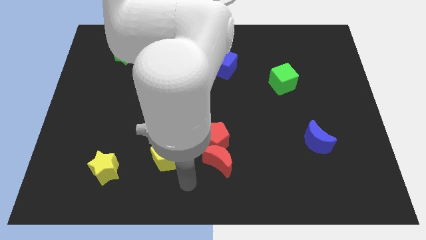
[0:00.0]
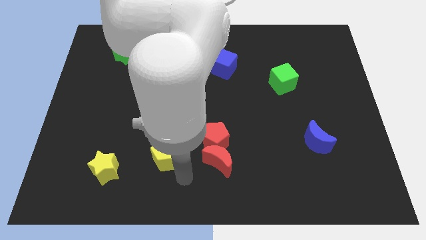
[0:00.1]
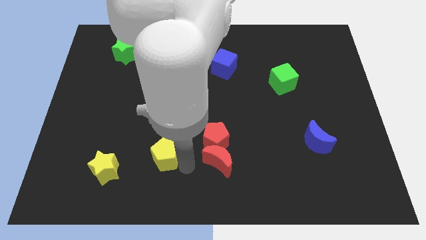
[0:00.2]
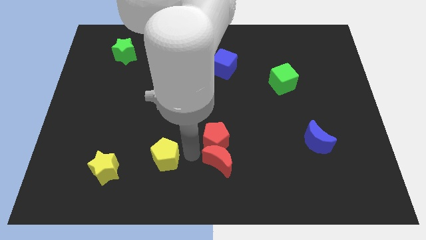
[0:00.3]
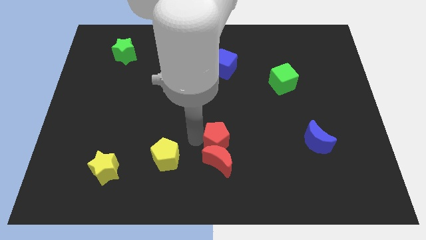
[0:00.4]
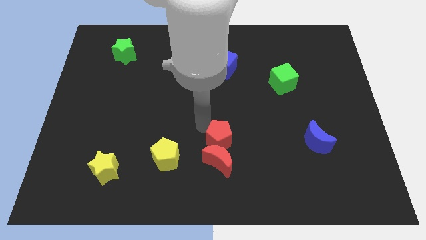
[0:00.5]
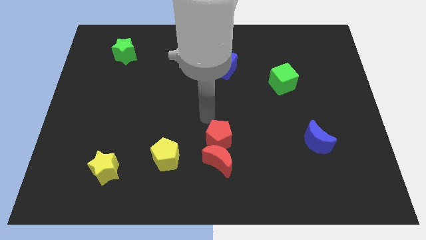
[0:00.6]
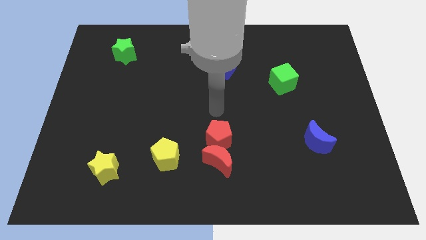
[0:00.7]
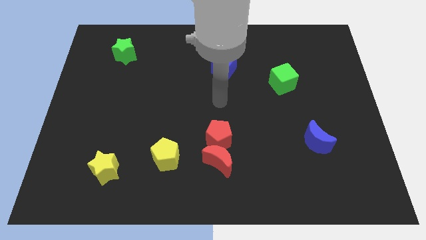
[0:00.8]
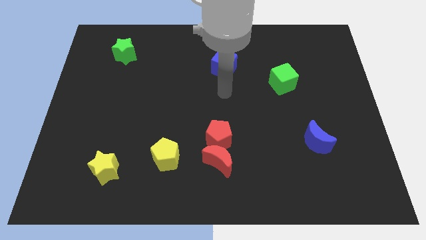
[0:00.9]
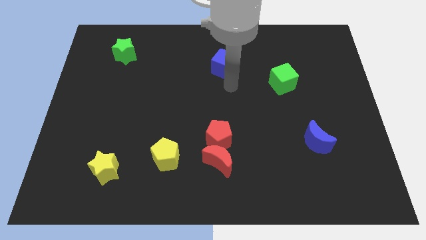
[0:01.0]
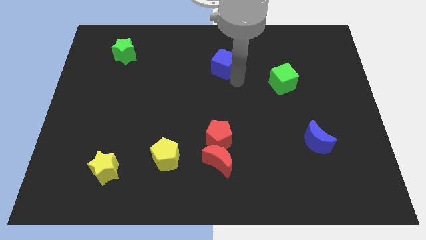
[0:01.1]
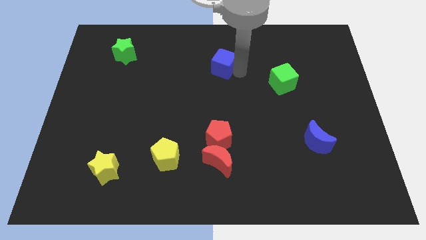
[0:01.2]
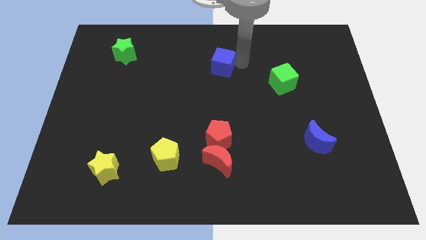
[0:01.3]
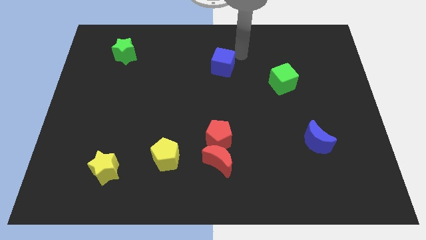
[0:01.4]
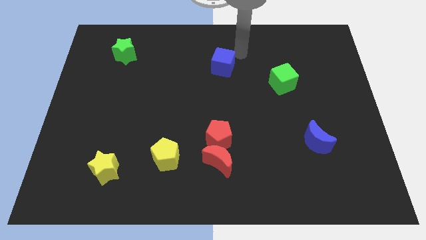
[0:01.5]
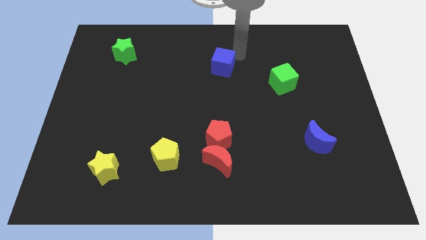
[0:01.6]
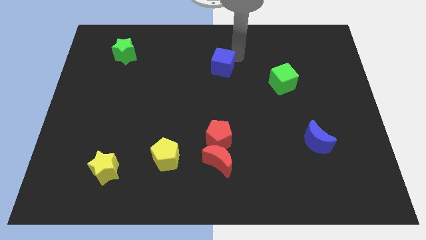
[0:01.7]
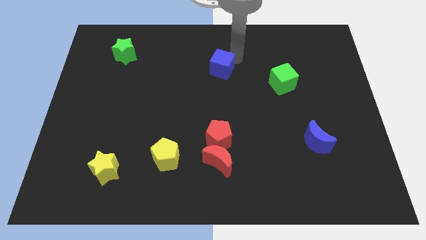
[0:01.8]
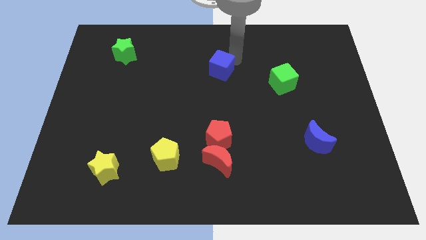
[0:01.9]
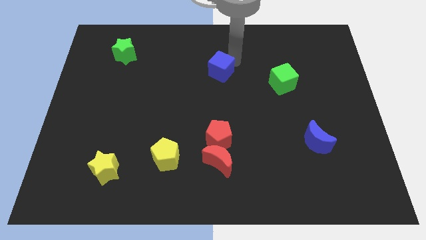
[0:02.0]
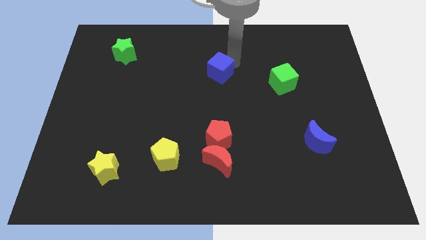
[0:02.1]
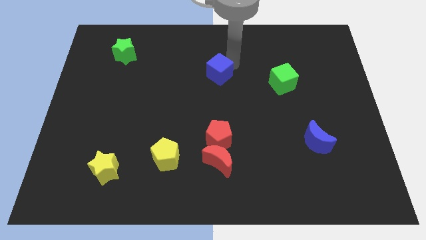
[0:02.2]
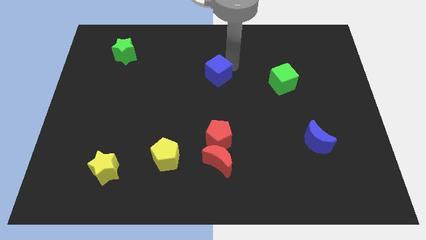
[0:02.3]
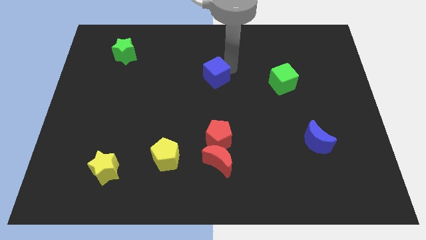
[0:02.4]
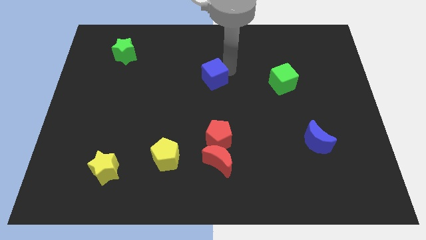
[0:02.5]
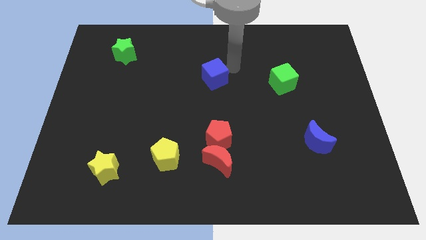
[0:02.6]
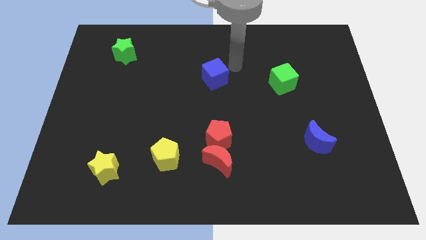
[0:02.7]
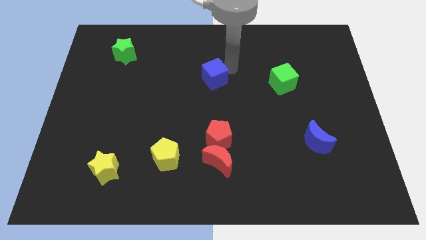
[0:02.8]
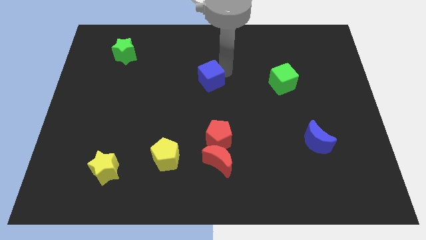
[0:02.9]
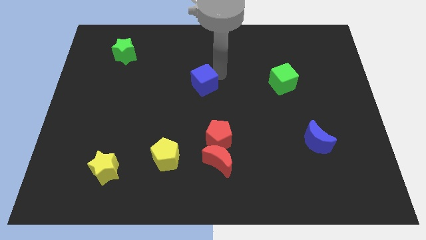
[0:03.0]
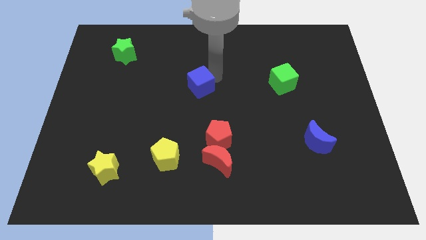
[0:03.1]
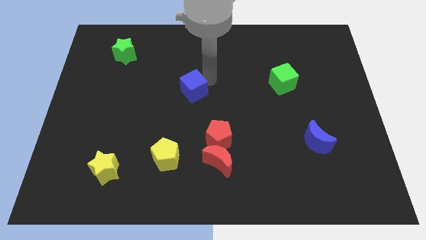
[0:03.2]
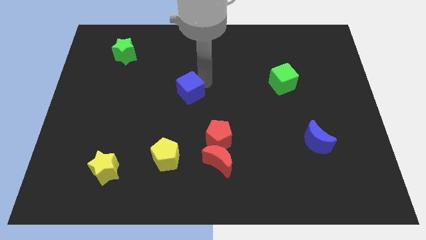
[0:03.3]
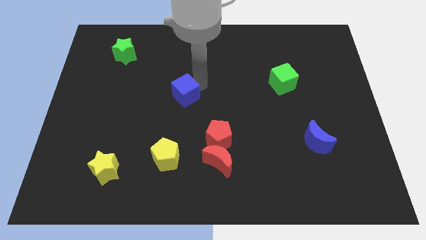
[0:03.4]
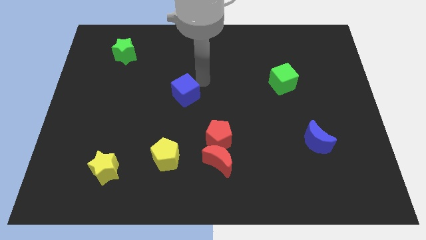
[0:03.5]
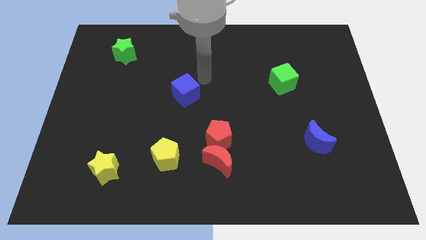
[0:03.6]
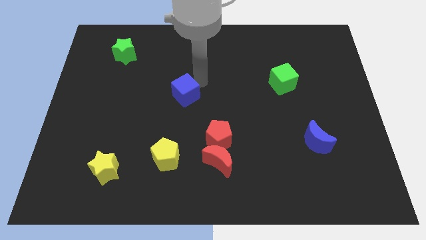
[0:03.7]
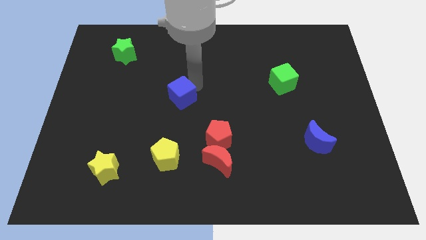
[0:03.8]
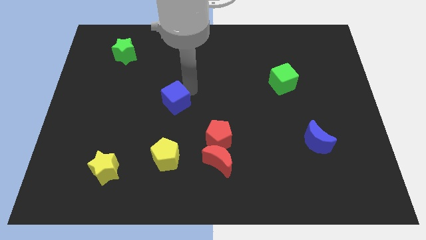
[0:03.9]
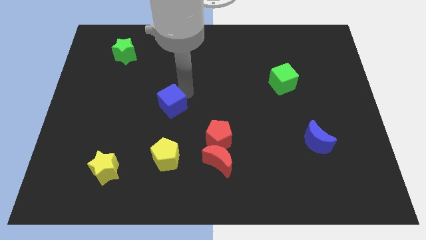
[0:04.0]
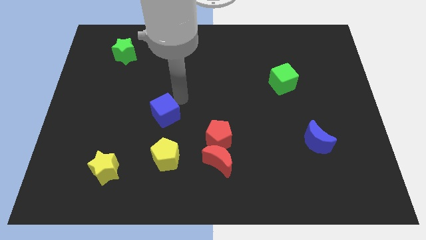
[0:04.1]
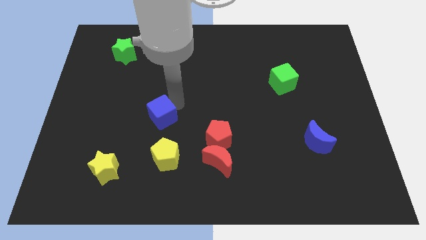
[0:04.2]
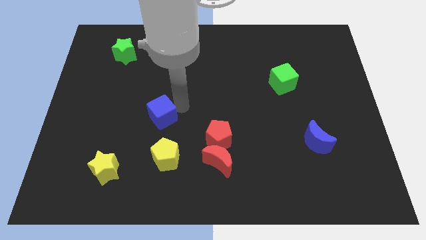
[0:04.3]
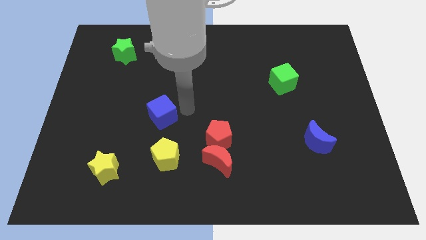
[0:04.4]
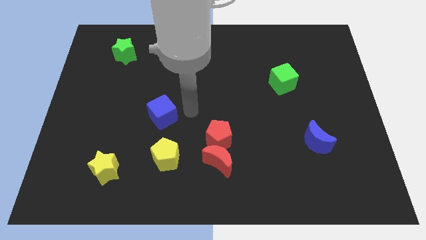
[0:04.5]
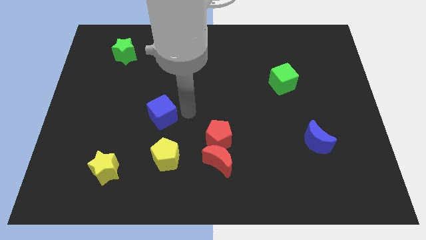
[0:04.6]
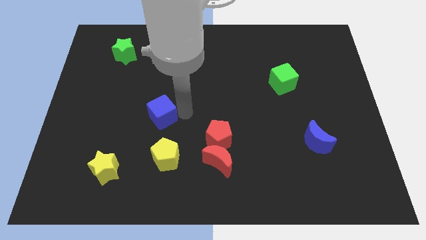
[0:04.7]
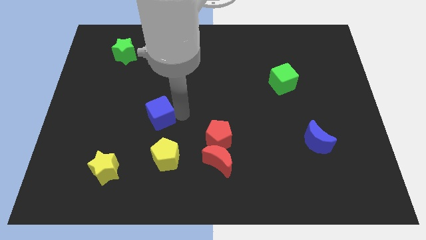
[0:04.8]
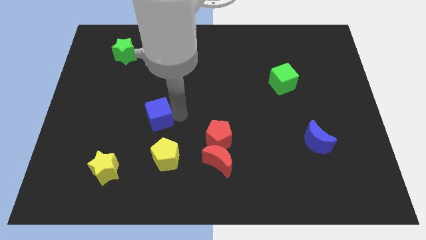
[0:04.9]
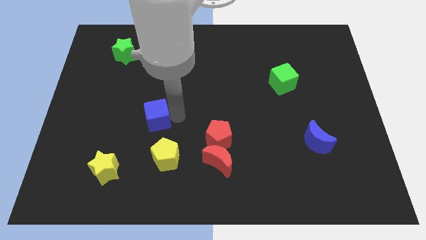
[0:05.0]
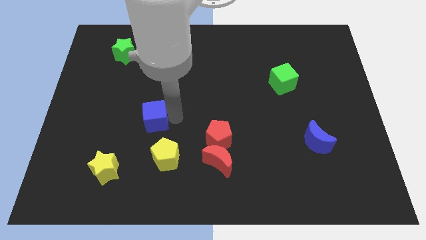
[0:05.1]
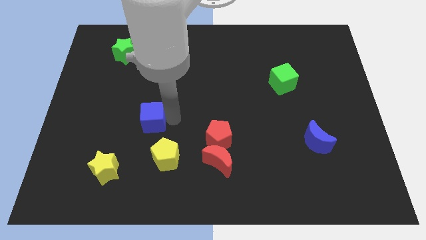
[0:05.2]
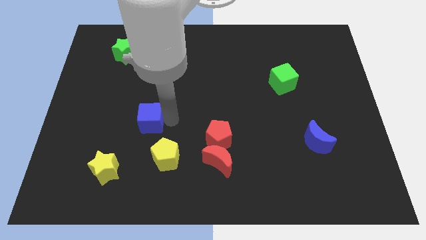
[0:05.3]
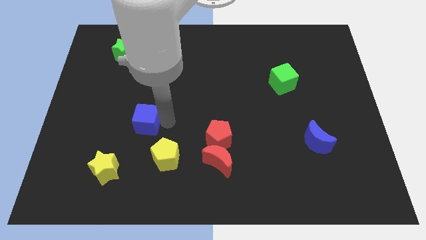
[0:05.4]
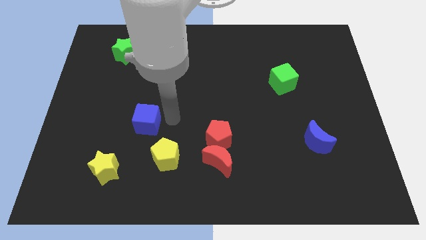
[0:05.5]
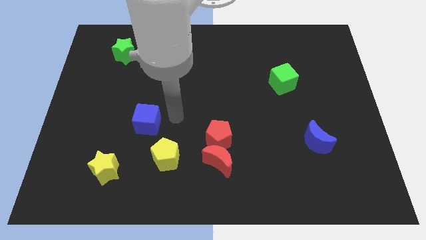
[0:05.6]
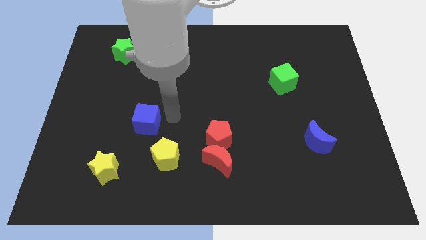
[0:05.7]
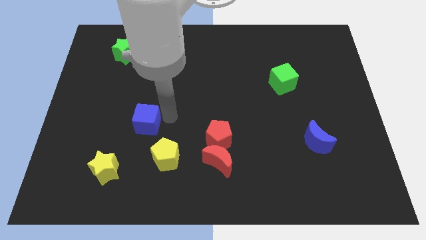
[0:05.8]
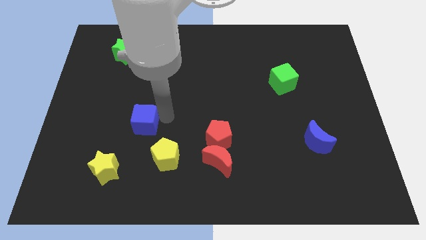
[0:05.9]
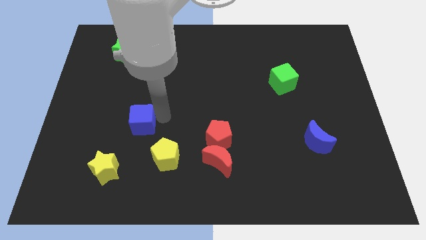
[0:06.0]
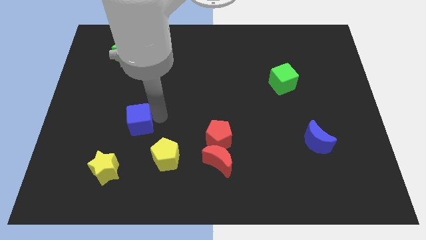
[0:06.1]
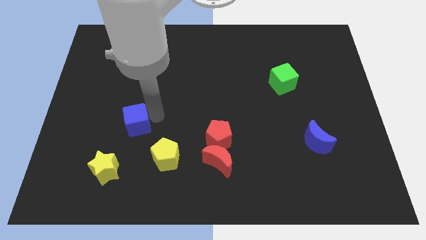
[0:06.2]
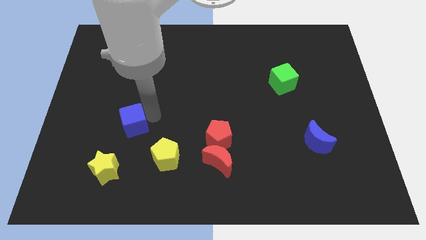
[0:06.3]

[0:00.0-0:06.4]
move the blue cube to the top side of the yellow star

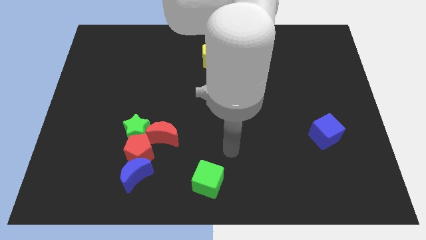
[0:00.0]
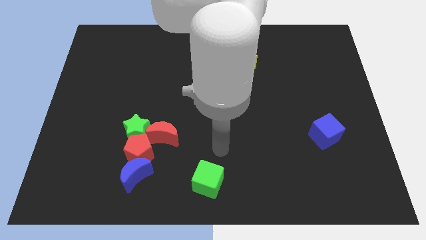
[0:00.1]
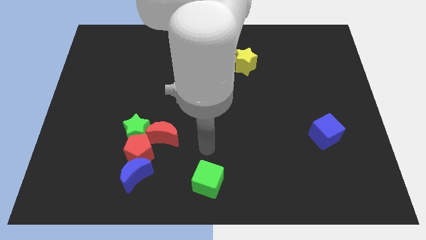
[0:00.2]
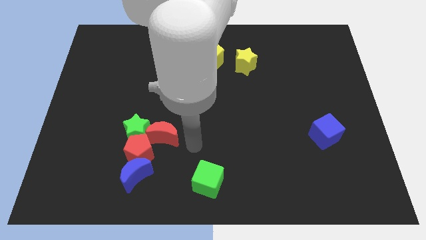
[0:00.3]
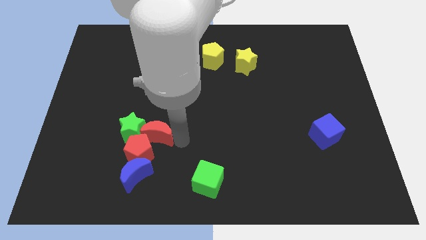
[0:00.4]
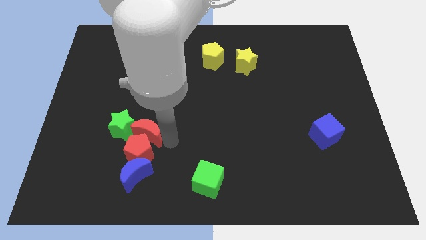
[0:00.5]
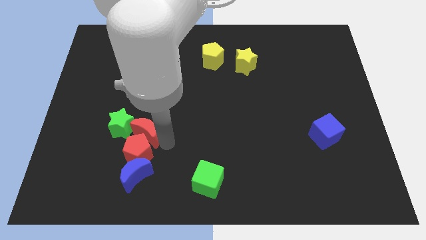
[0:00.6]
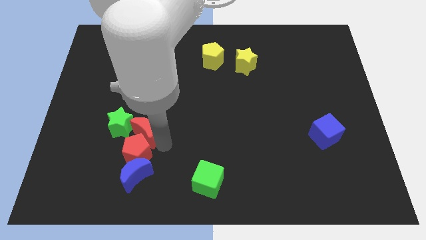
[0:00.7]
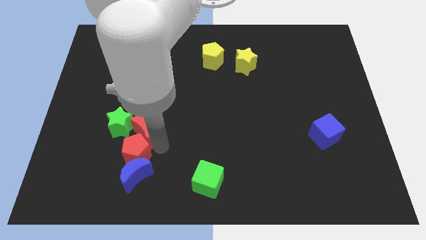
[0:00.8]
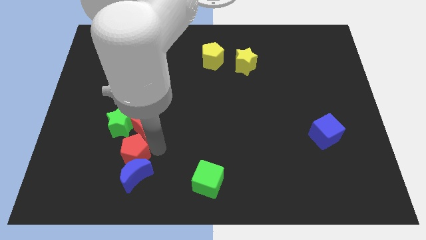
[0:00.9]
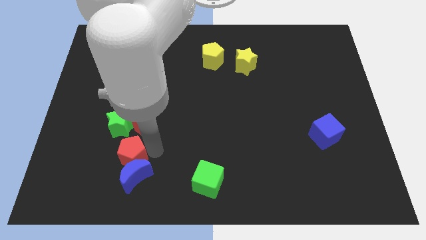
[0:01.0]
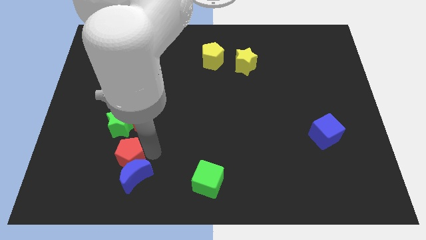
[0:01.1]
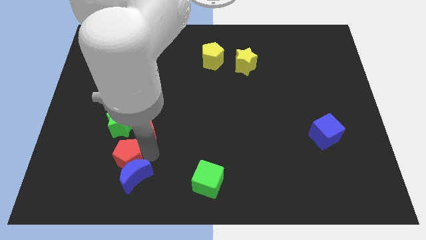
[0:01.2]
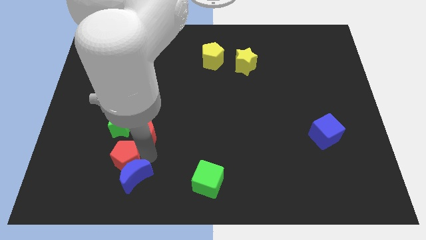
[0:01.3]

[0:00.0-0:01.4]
move the red pentagon to the left of the blue moon
